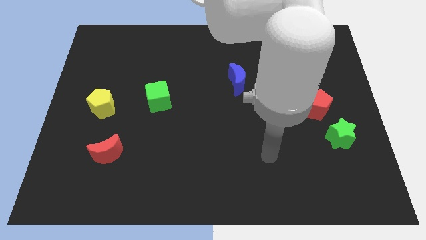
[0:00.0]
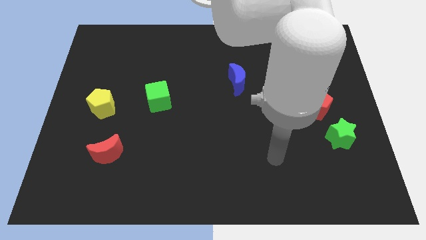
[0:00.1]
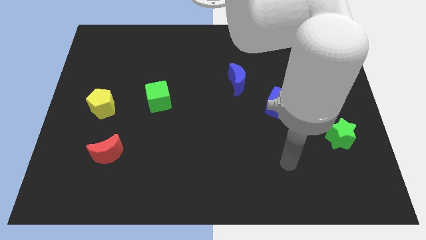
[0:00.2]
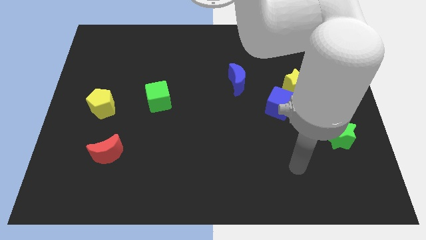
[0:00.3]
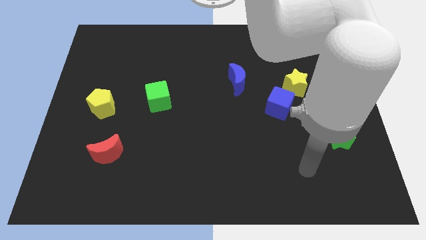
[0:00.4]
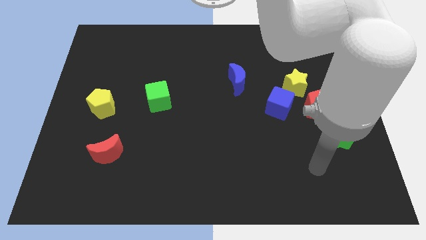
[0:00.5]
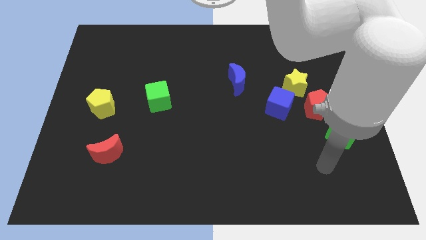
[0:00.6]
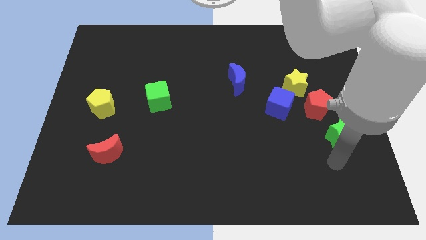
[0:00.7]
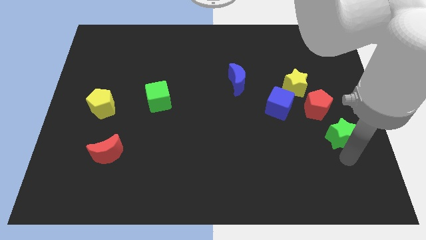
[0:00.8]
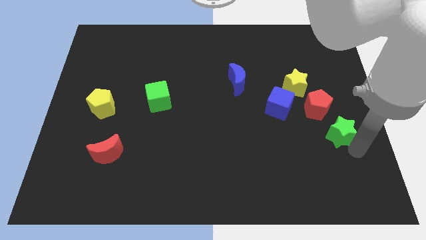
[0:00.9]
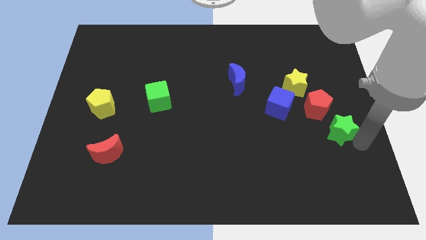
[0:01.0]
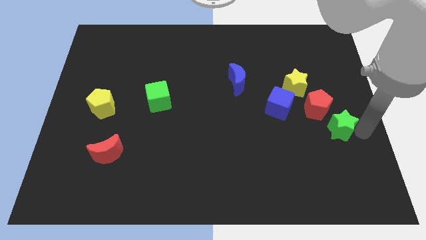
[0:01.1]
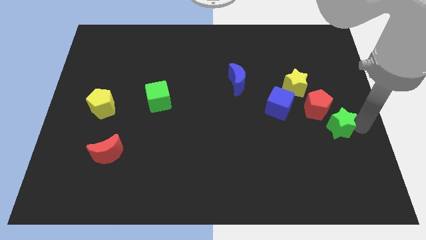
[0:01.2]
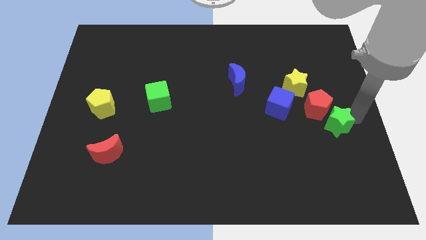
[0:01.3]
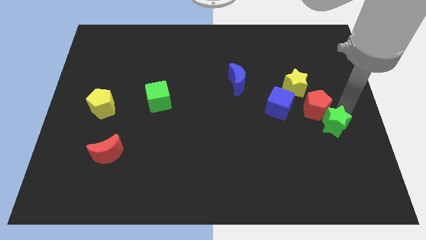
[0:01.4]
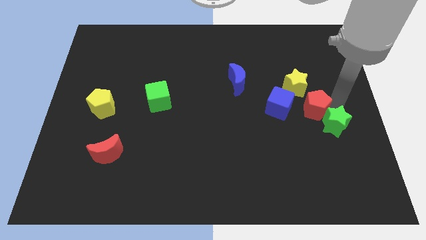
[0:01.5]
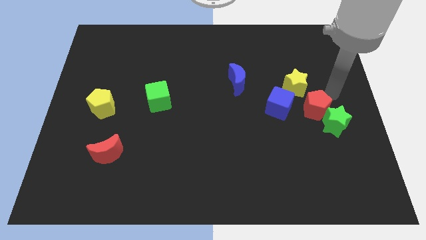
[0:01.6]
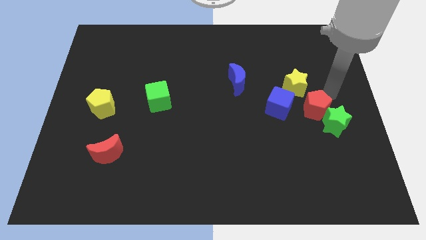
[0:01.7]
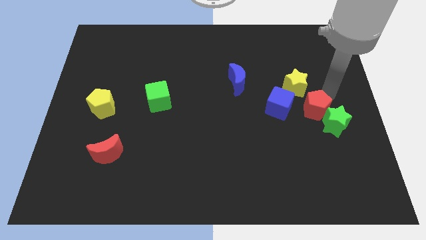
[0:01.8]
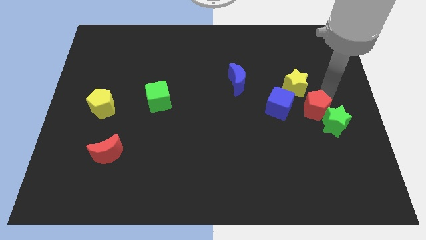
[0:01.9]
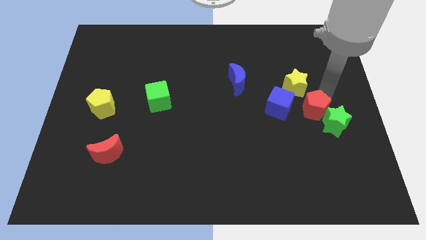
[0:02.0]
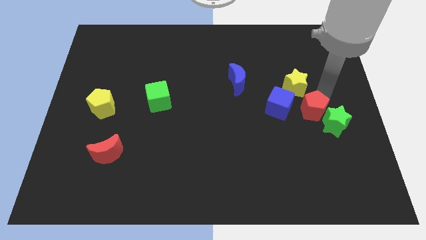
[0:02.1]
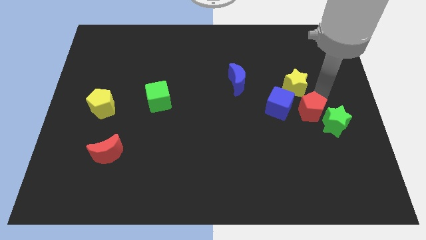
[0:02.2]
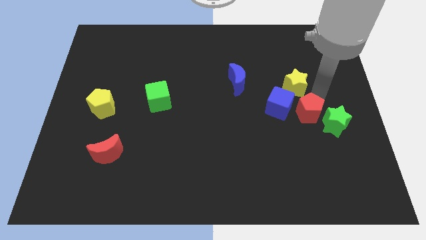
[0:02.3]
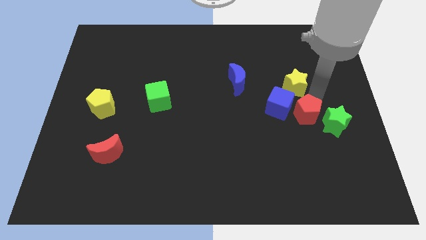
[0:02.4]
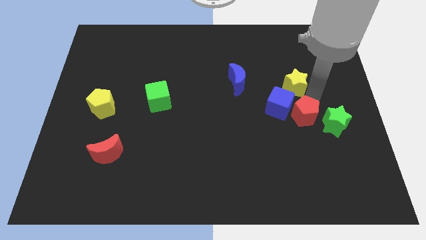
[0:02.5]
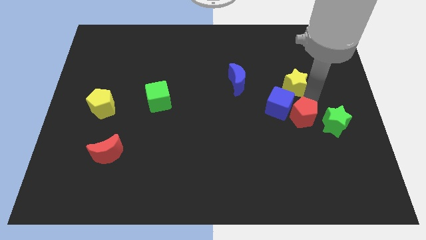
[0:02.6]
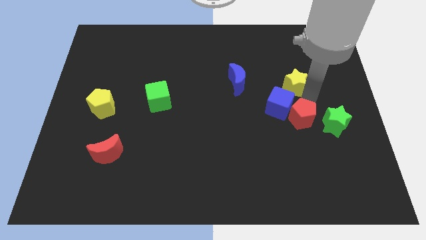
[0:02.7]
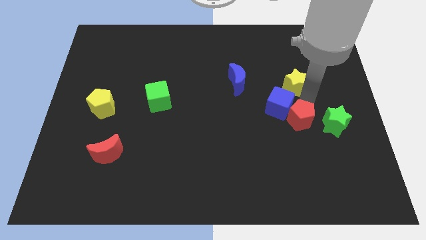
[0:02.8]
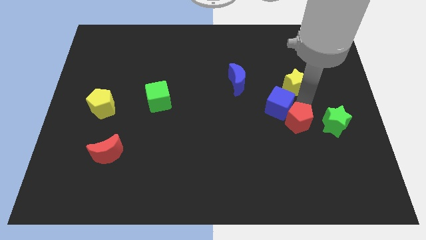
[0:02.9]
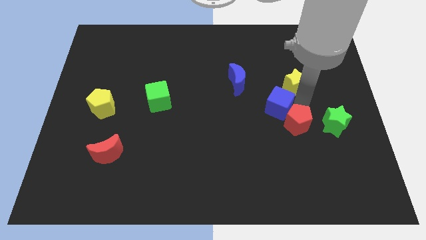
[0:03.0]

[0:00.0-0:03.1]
slide the red pentagon downwards and then left slightly

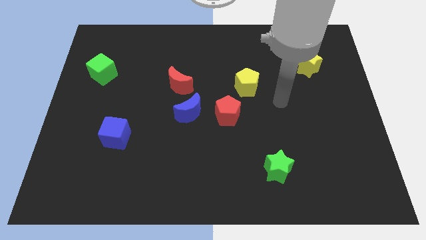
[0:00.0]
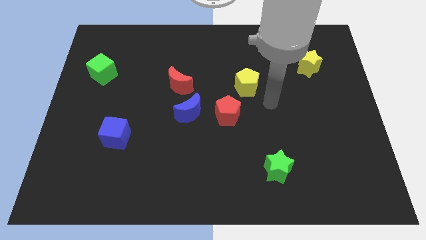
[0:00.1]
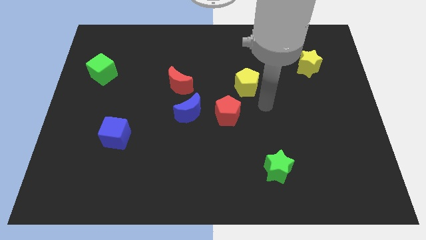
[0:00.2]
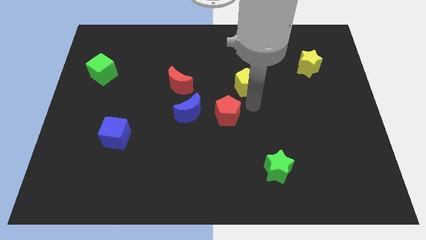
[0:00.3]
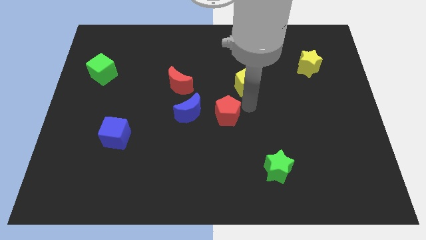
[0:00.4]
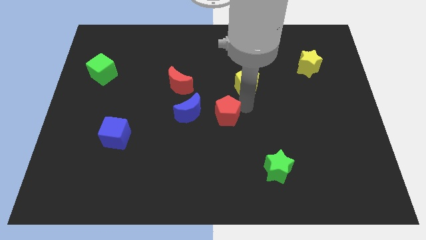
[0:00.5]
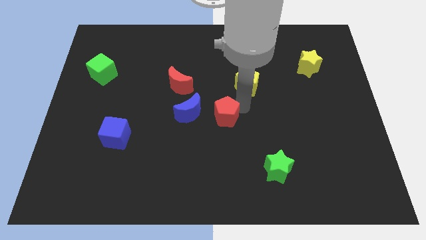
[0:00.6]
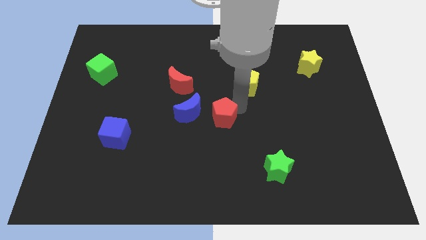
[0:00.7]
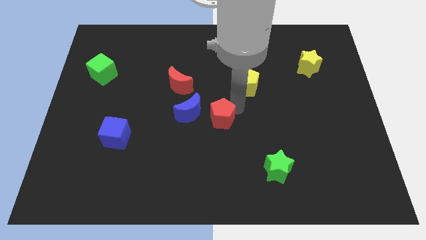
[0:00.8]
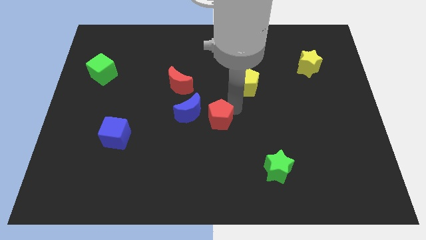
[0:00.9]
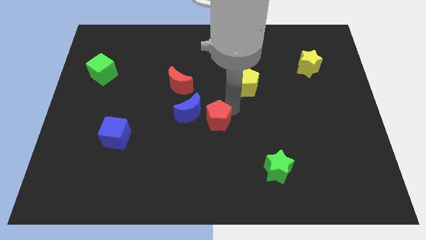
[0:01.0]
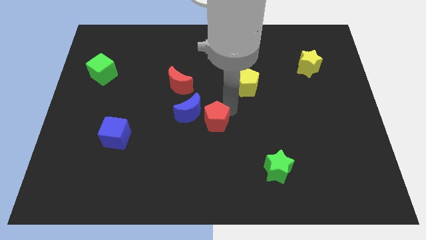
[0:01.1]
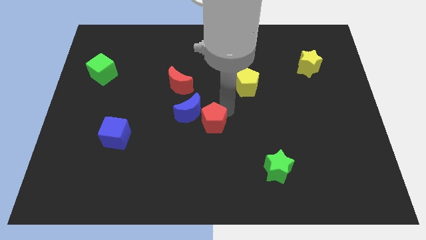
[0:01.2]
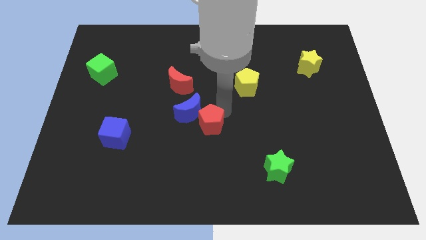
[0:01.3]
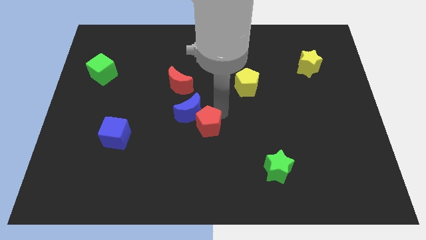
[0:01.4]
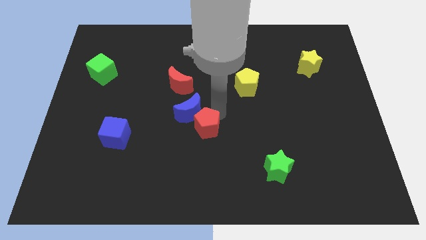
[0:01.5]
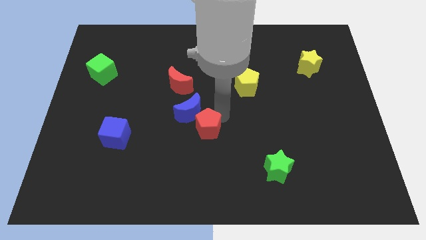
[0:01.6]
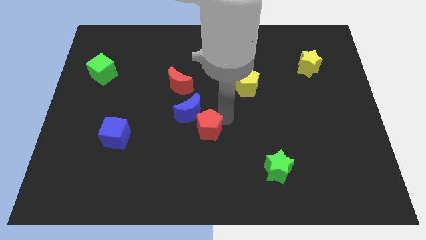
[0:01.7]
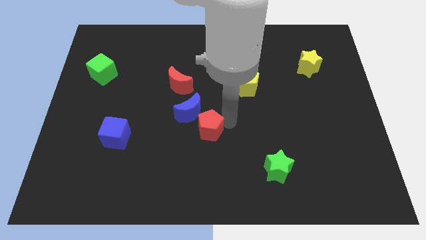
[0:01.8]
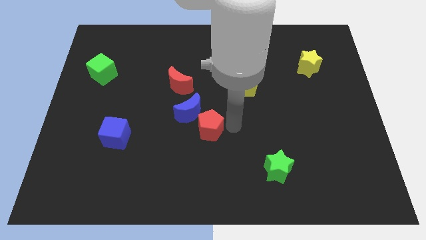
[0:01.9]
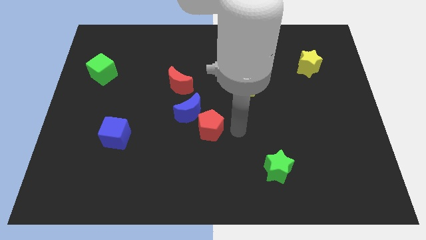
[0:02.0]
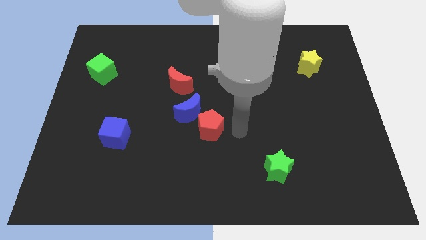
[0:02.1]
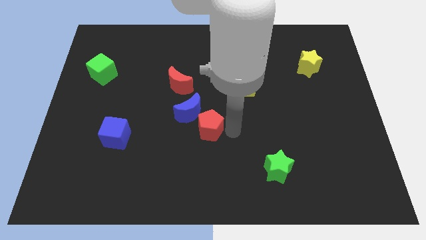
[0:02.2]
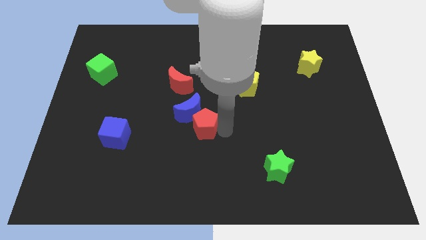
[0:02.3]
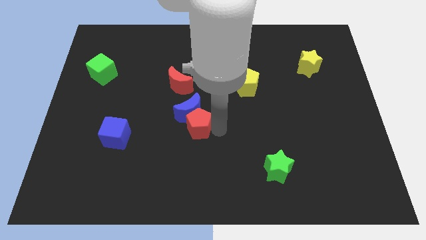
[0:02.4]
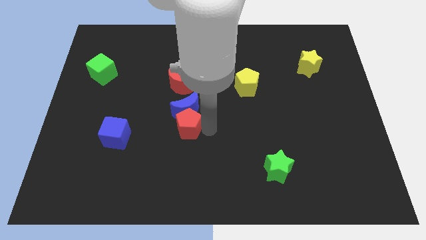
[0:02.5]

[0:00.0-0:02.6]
move the red pentagon left a little

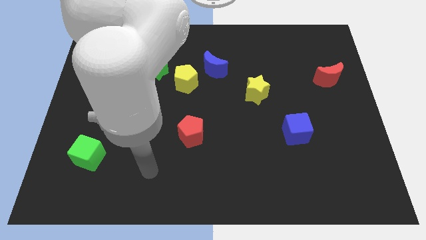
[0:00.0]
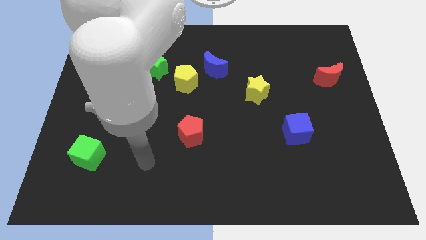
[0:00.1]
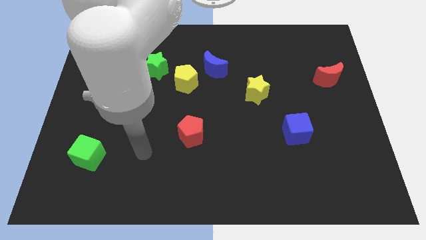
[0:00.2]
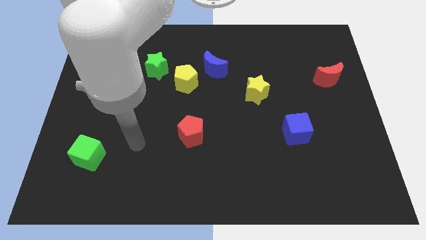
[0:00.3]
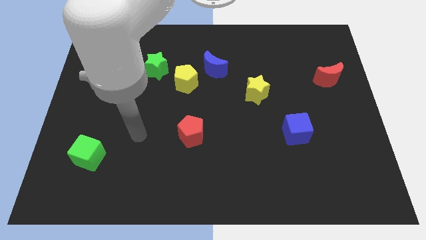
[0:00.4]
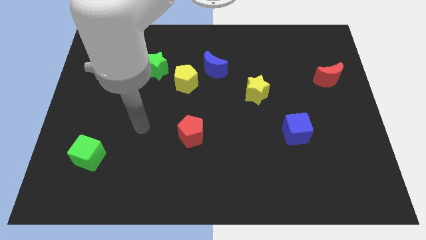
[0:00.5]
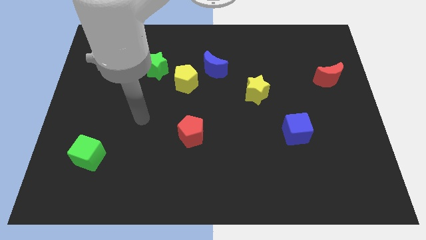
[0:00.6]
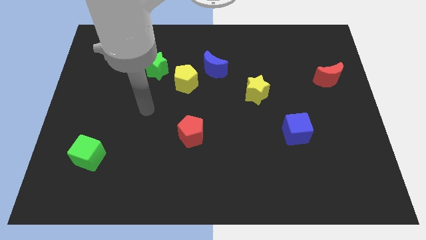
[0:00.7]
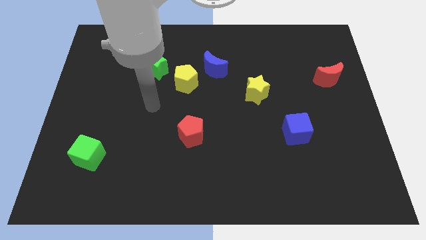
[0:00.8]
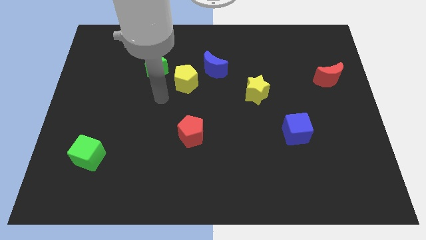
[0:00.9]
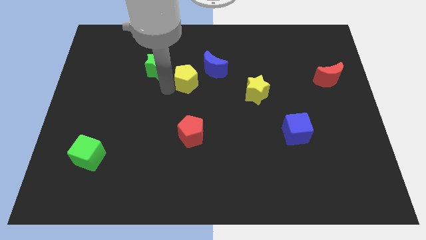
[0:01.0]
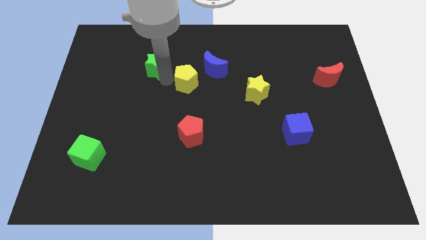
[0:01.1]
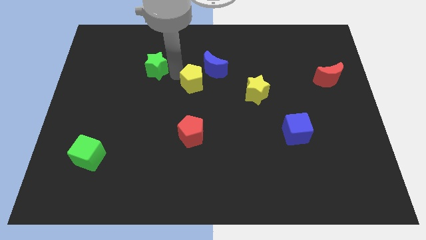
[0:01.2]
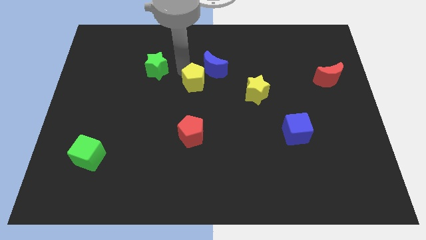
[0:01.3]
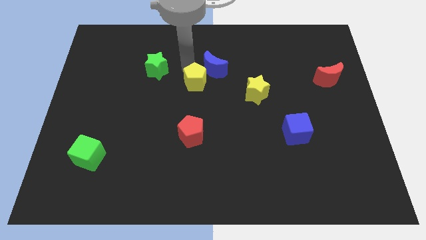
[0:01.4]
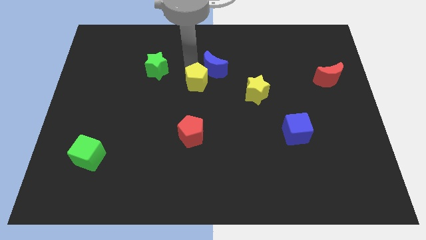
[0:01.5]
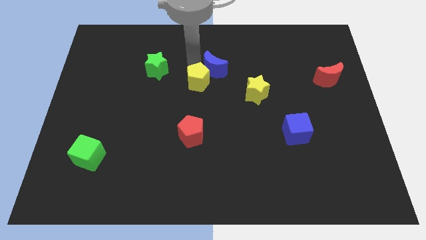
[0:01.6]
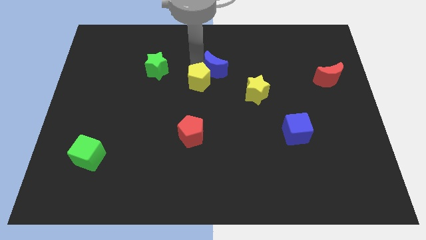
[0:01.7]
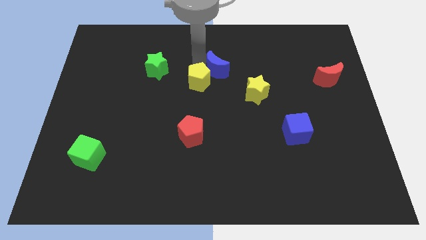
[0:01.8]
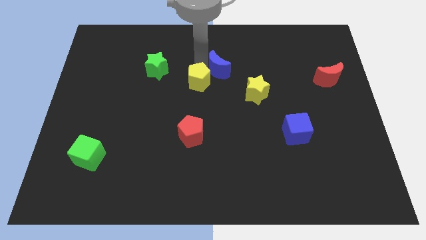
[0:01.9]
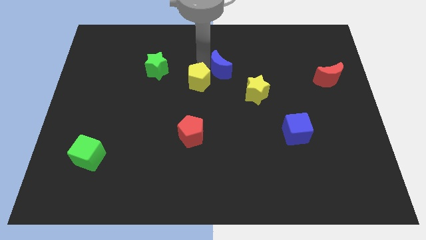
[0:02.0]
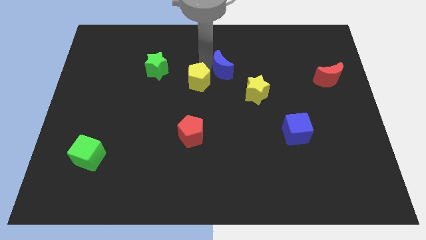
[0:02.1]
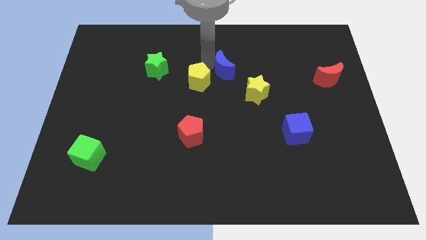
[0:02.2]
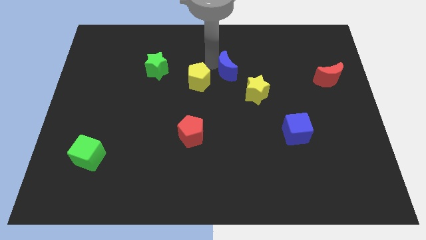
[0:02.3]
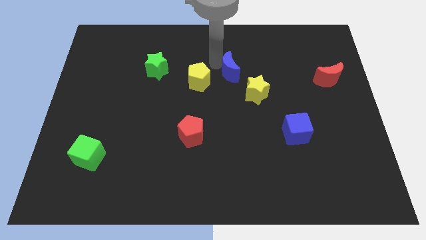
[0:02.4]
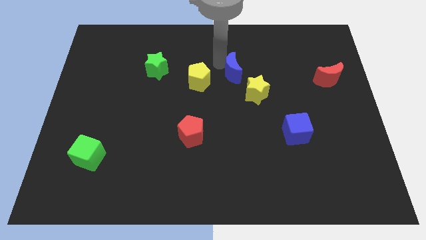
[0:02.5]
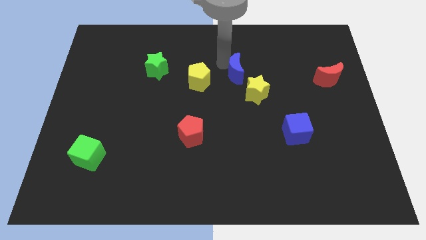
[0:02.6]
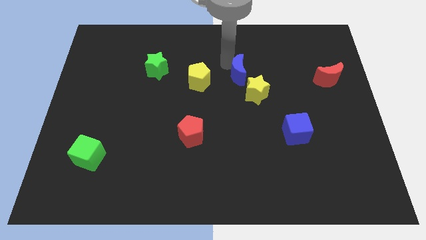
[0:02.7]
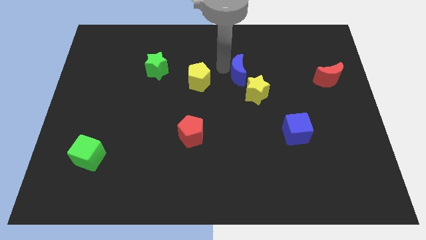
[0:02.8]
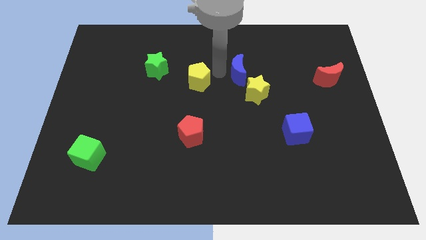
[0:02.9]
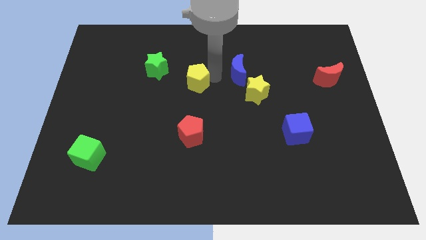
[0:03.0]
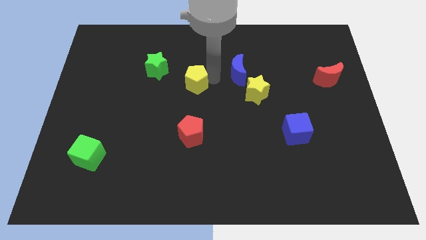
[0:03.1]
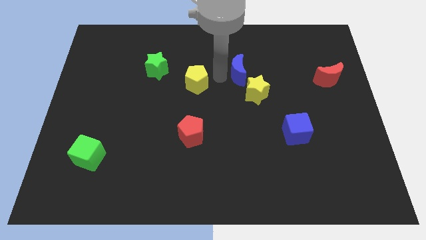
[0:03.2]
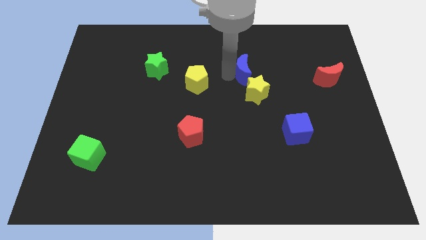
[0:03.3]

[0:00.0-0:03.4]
slightly slide the blue moon to the right
